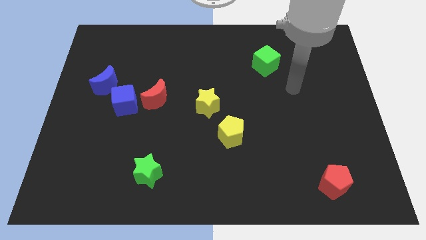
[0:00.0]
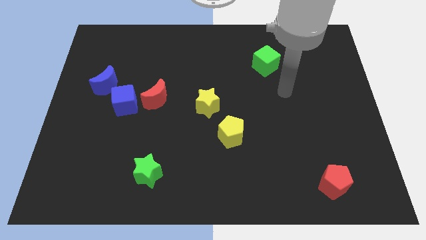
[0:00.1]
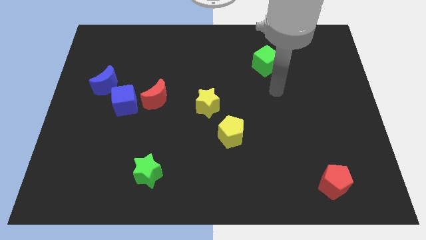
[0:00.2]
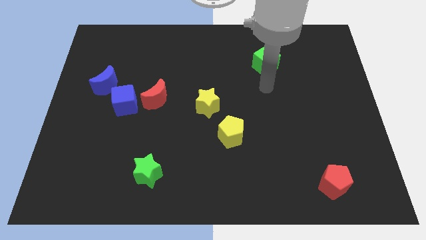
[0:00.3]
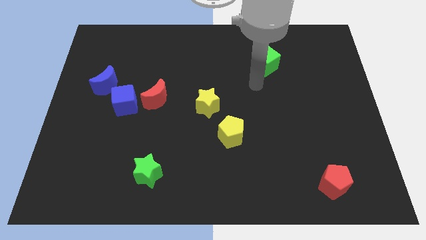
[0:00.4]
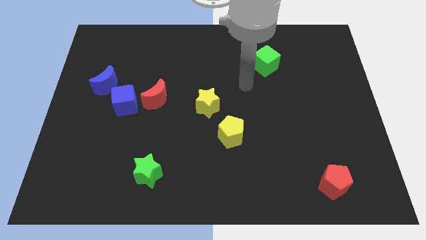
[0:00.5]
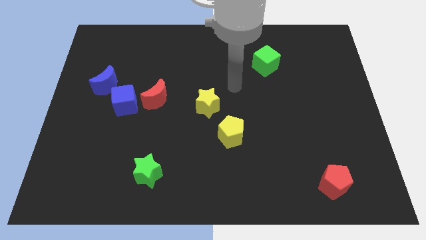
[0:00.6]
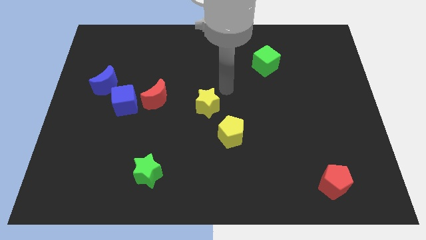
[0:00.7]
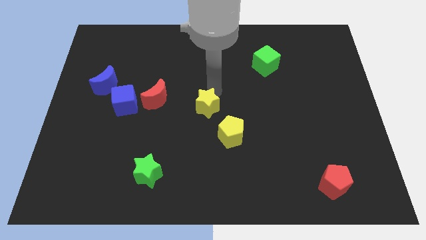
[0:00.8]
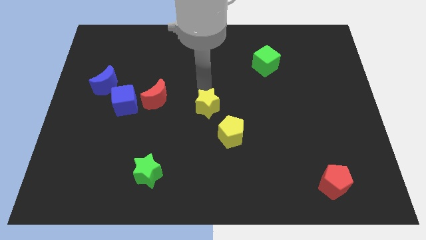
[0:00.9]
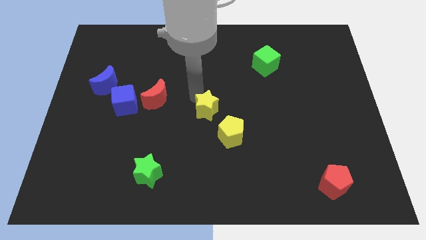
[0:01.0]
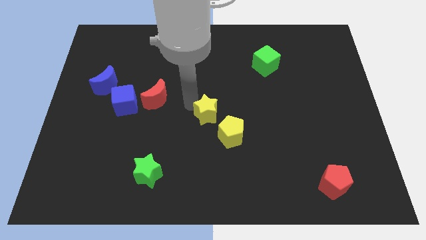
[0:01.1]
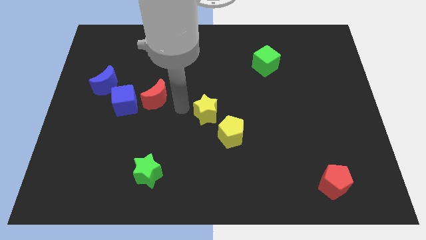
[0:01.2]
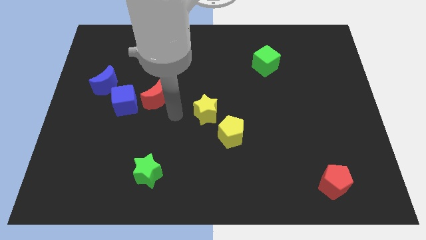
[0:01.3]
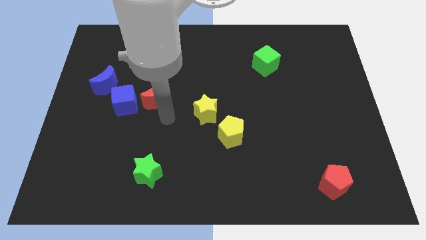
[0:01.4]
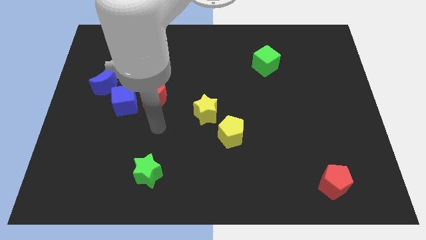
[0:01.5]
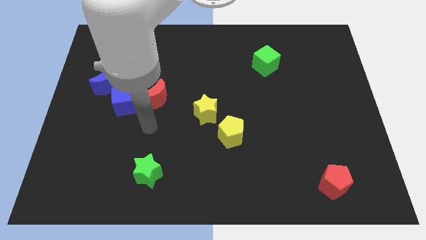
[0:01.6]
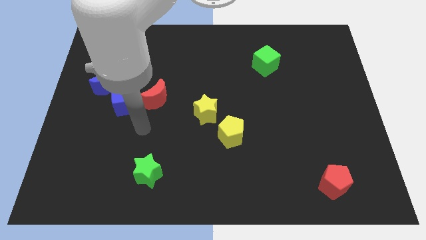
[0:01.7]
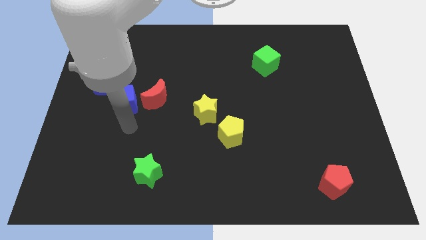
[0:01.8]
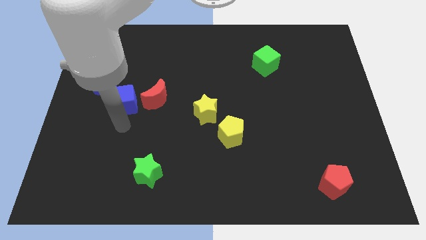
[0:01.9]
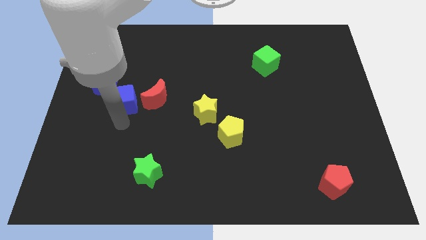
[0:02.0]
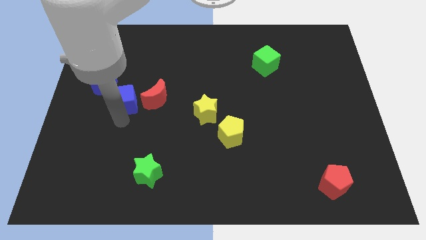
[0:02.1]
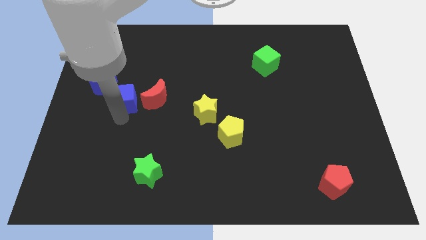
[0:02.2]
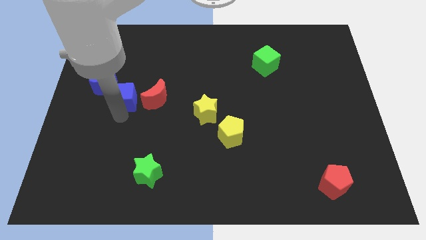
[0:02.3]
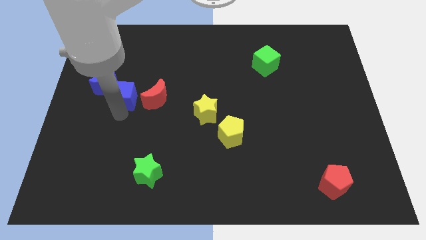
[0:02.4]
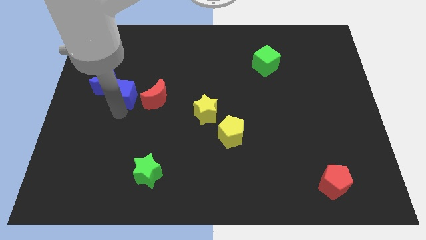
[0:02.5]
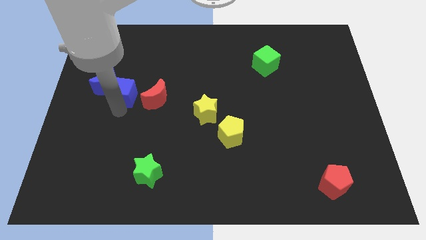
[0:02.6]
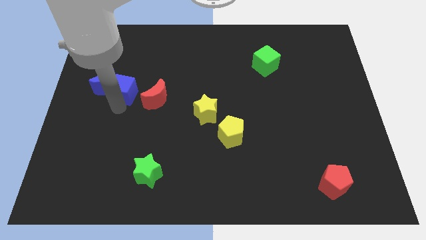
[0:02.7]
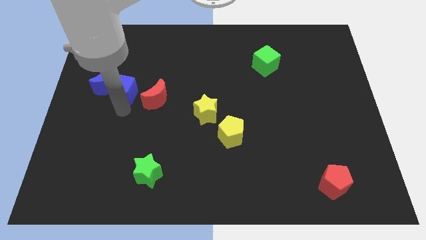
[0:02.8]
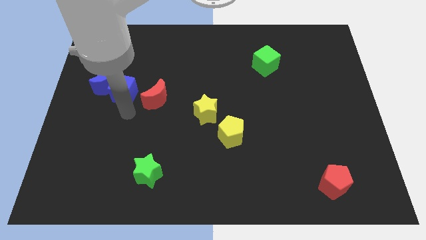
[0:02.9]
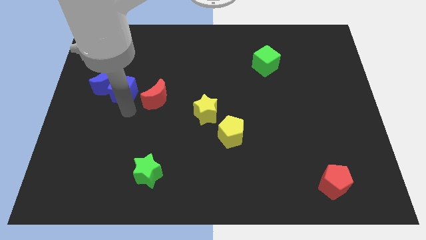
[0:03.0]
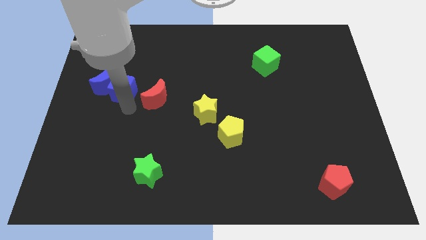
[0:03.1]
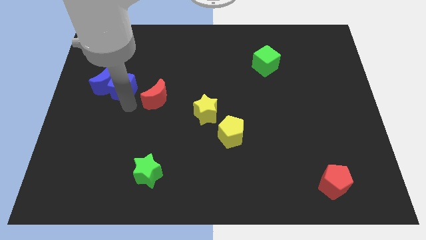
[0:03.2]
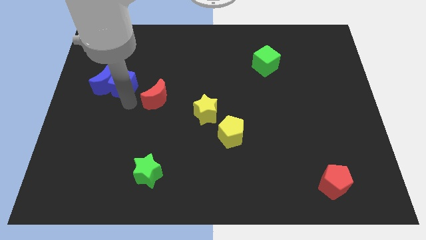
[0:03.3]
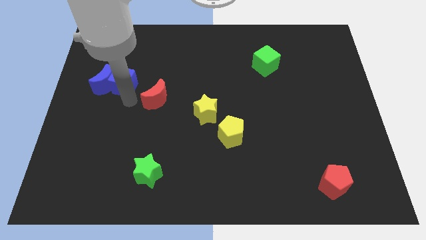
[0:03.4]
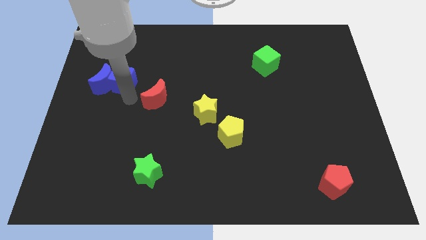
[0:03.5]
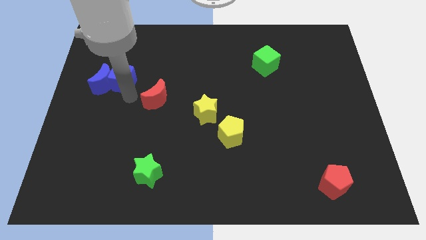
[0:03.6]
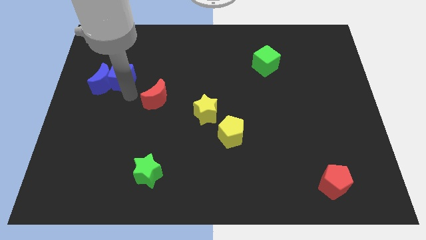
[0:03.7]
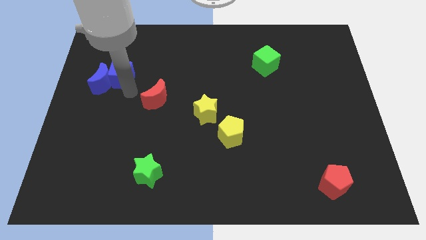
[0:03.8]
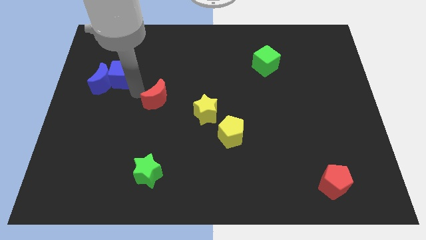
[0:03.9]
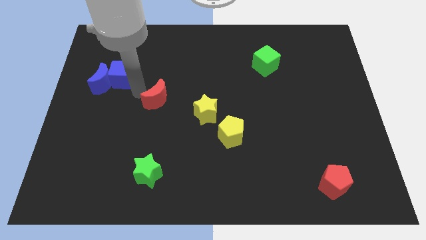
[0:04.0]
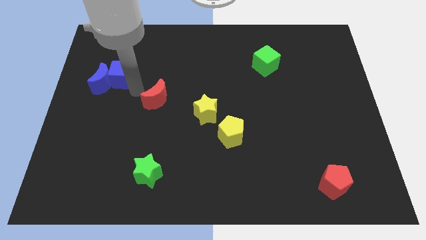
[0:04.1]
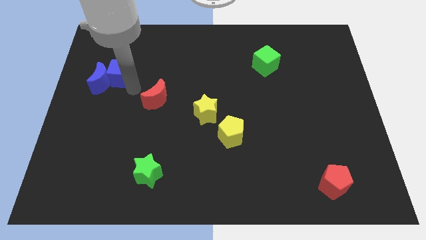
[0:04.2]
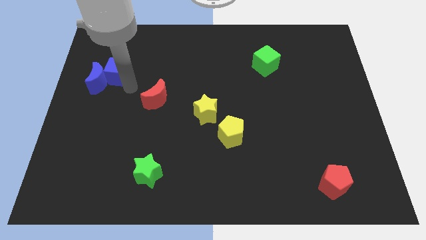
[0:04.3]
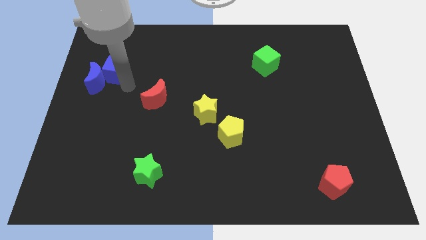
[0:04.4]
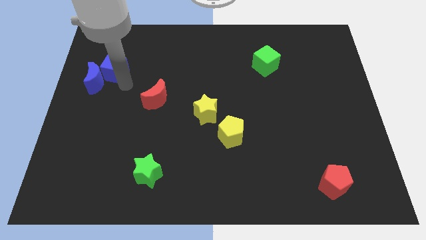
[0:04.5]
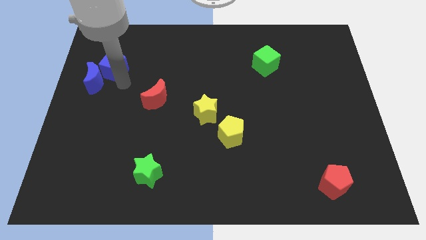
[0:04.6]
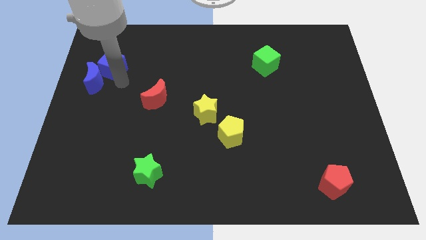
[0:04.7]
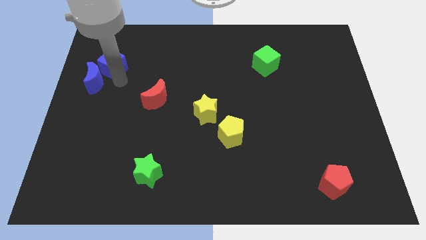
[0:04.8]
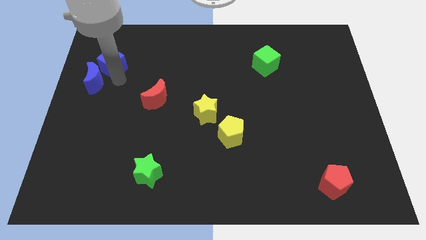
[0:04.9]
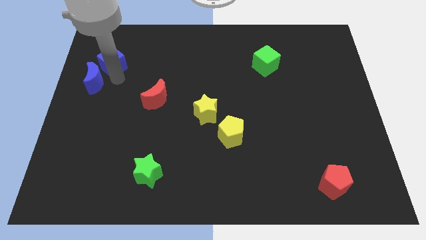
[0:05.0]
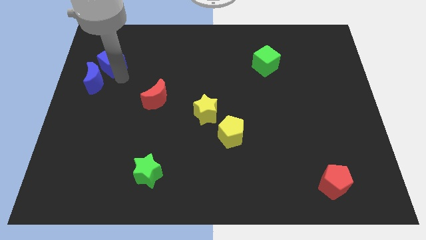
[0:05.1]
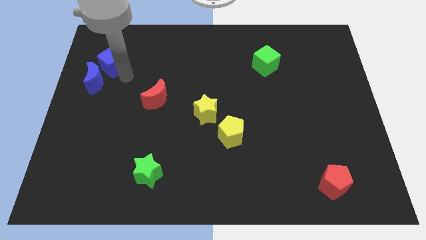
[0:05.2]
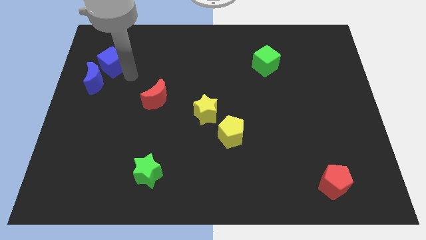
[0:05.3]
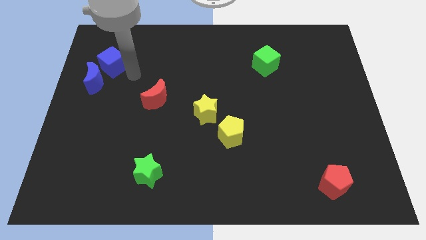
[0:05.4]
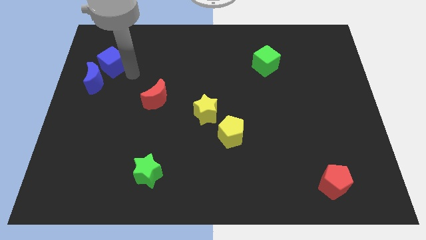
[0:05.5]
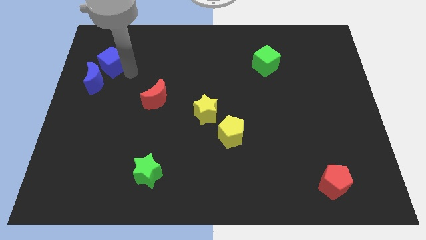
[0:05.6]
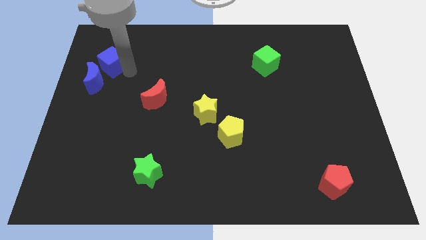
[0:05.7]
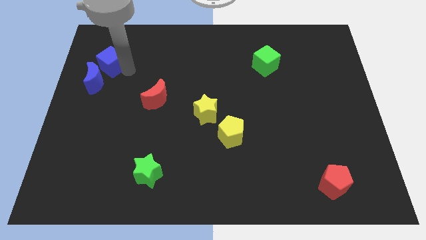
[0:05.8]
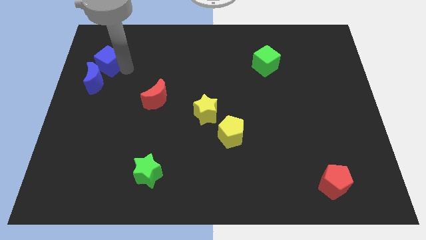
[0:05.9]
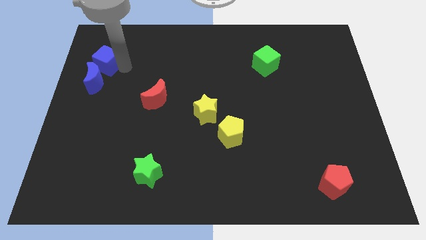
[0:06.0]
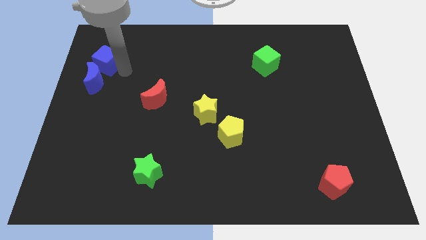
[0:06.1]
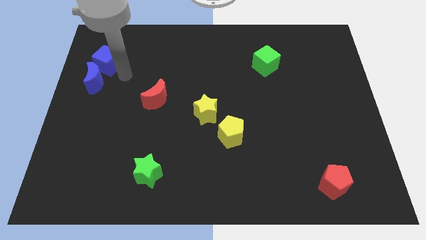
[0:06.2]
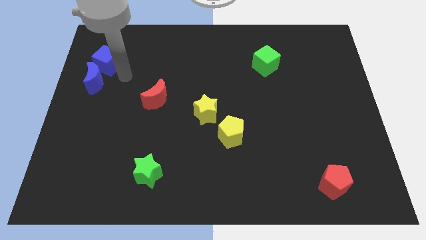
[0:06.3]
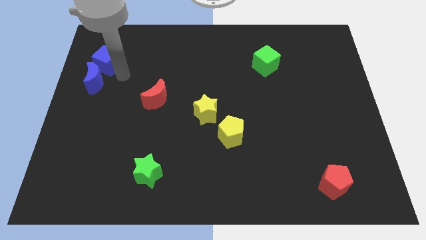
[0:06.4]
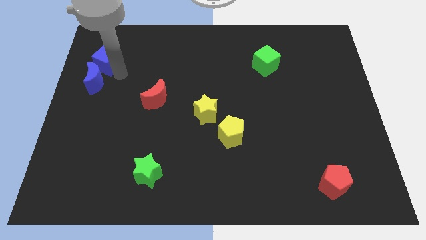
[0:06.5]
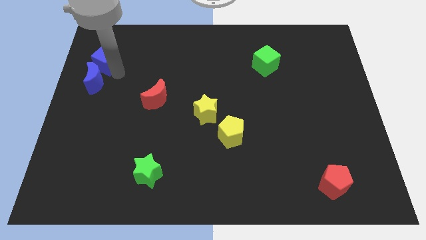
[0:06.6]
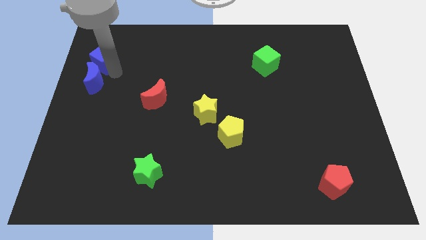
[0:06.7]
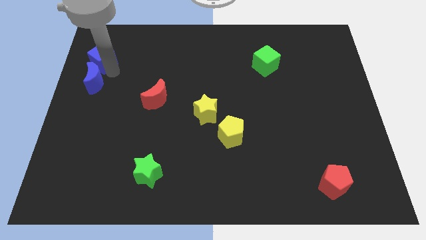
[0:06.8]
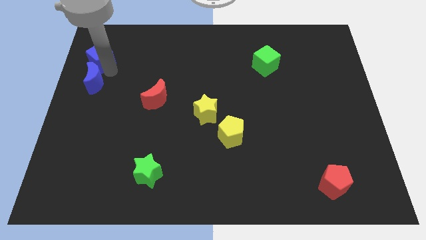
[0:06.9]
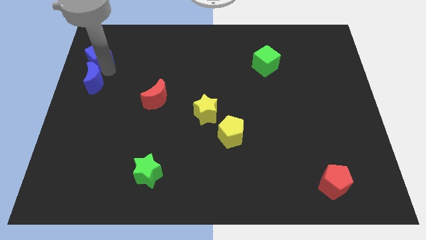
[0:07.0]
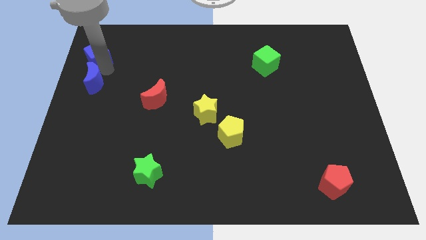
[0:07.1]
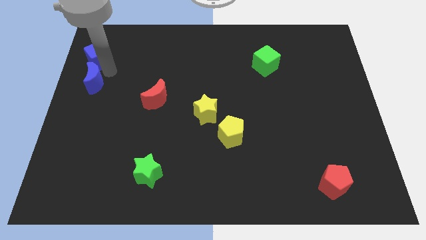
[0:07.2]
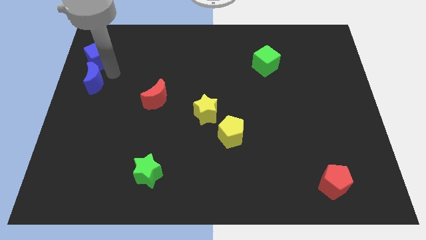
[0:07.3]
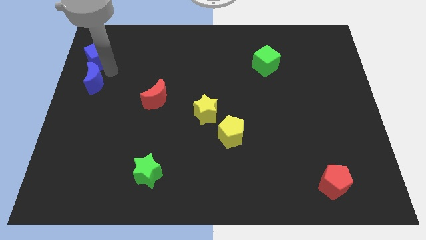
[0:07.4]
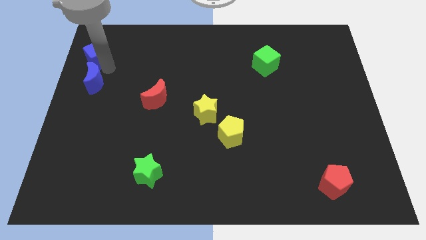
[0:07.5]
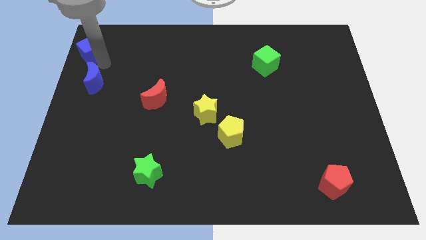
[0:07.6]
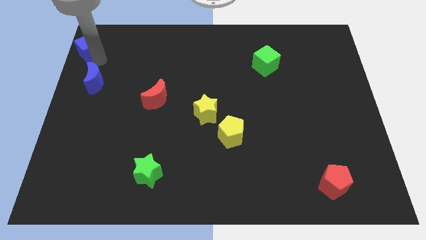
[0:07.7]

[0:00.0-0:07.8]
move the blue cube to the upper left corner

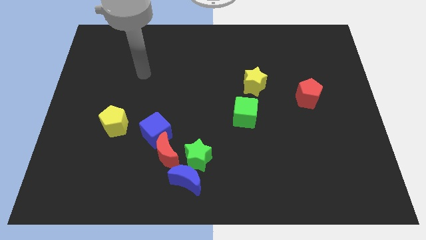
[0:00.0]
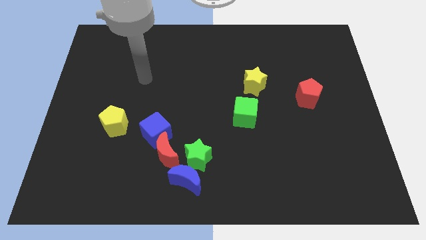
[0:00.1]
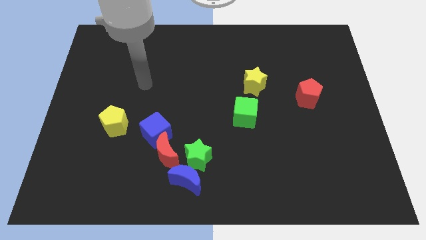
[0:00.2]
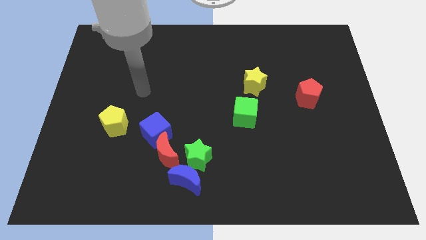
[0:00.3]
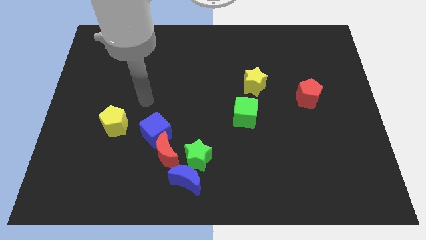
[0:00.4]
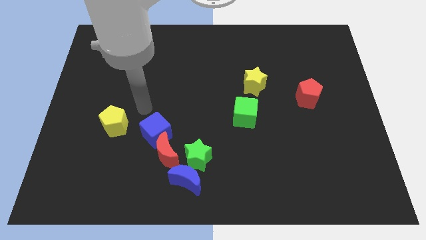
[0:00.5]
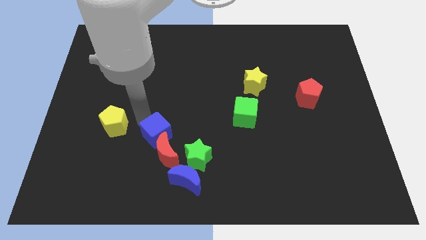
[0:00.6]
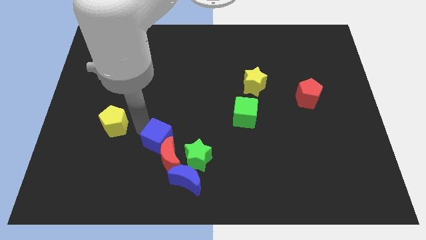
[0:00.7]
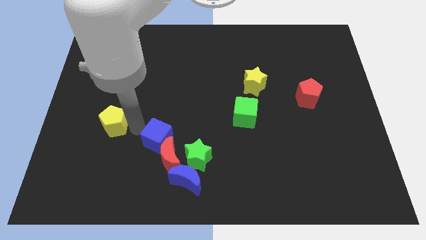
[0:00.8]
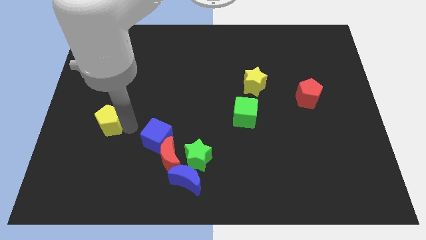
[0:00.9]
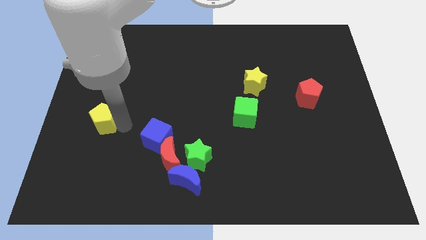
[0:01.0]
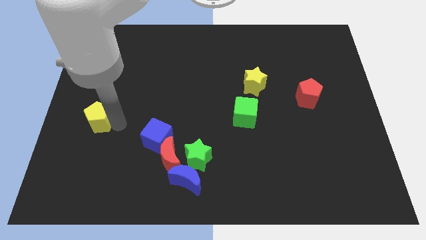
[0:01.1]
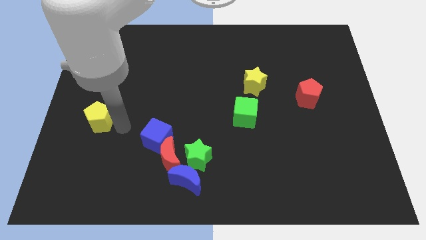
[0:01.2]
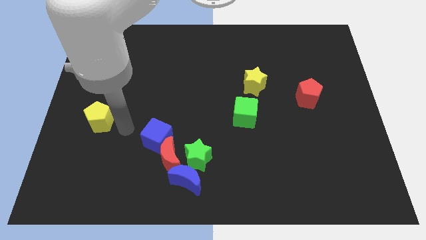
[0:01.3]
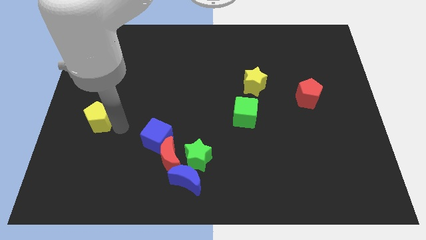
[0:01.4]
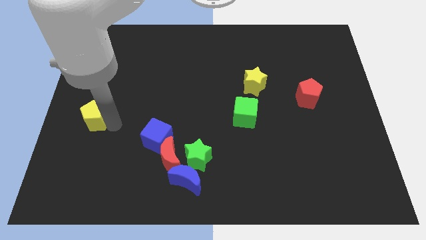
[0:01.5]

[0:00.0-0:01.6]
put the yellow pentagon to the left side
